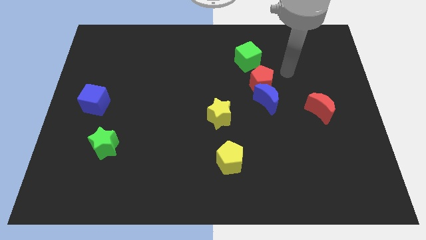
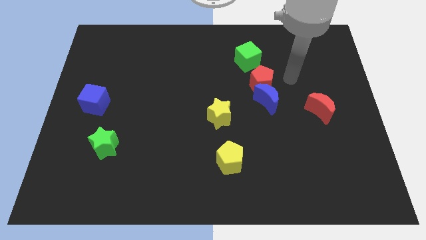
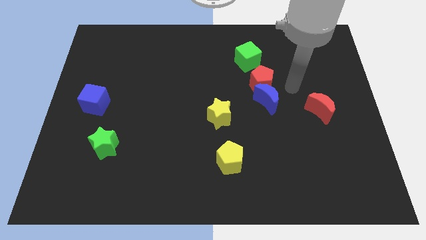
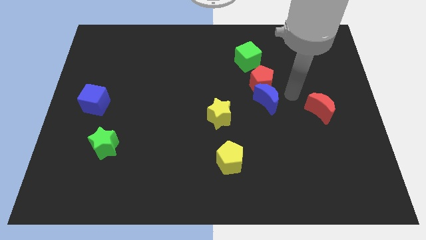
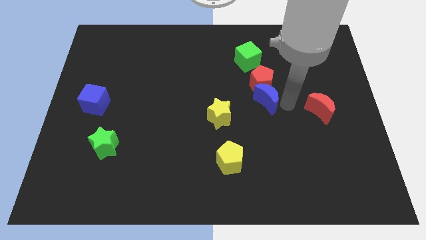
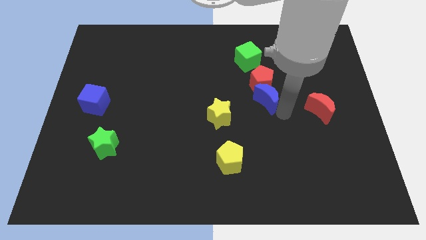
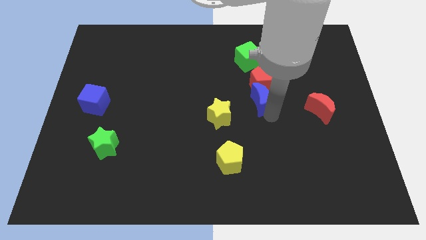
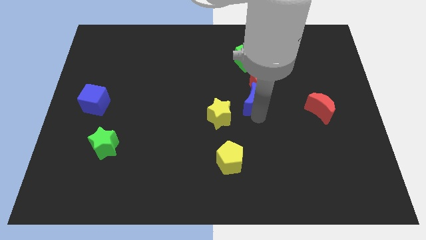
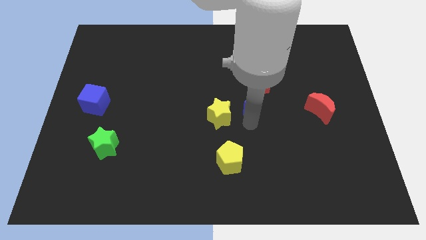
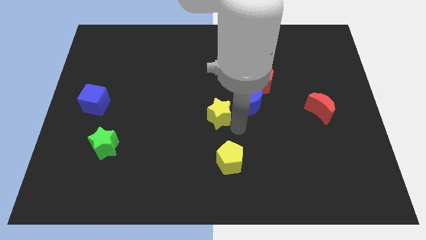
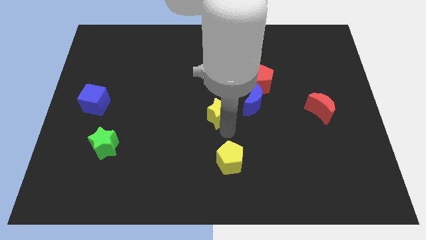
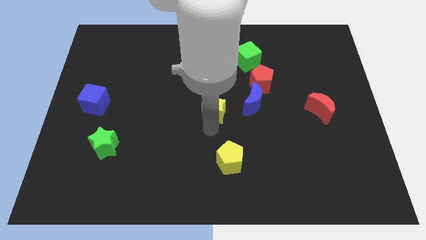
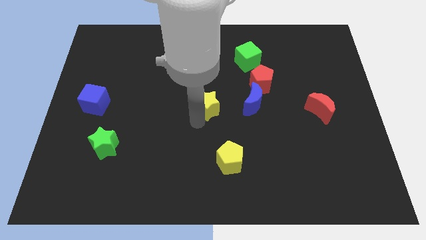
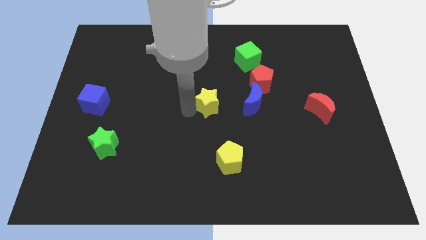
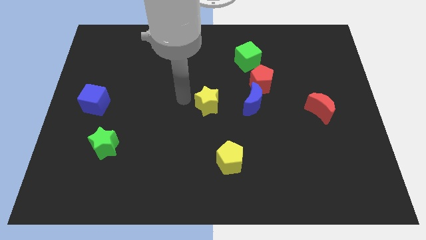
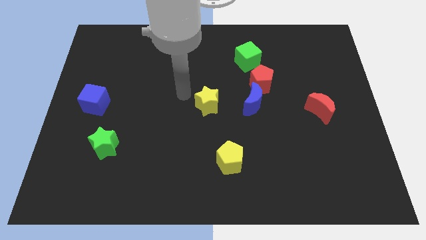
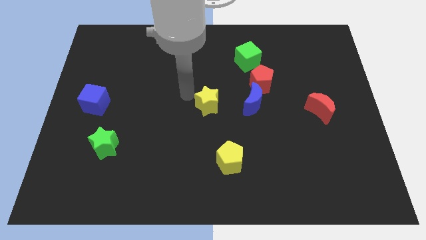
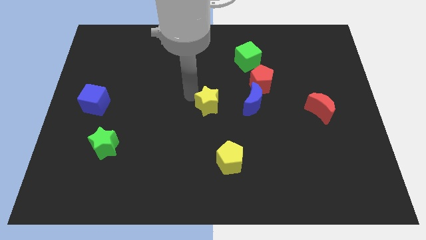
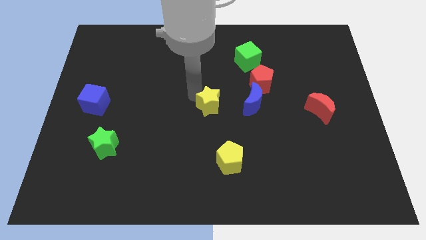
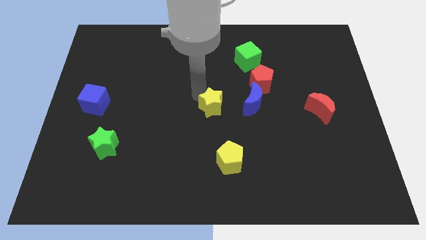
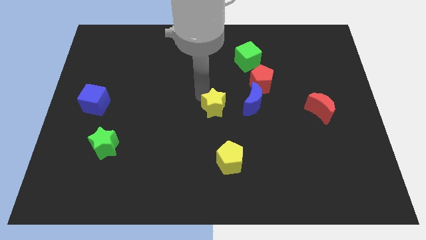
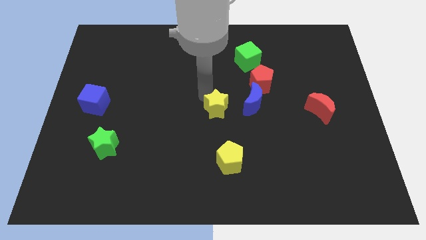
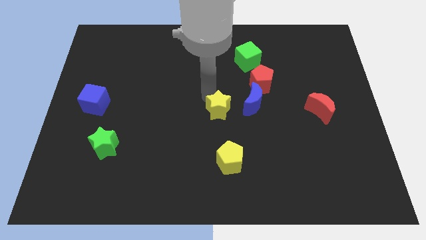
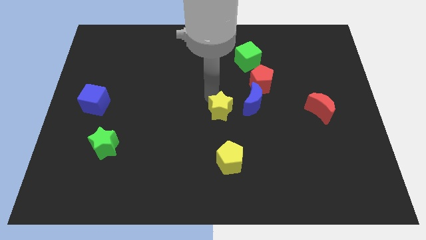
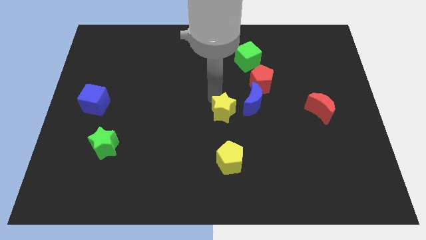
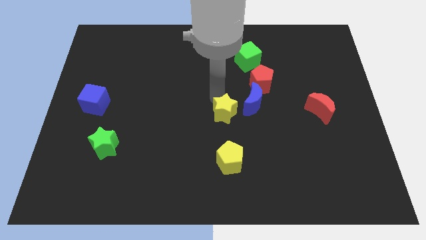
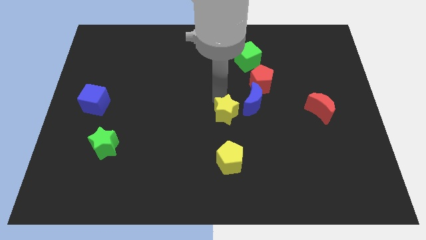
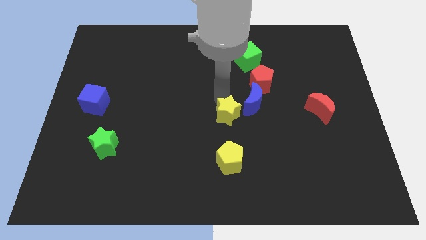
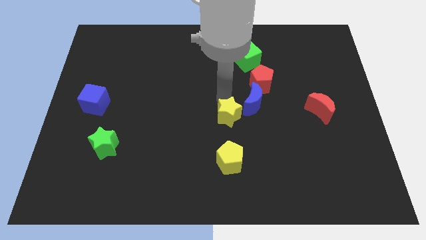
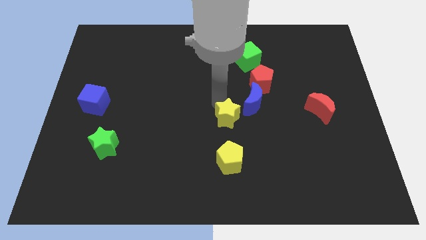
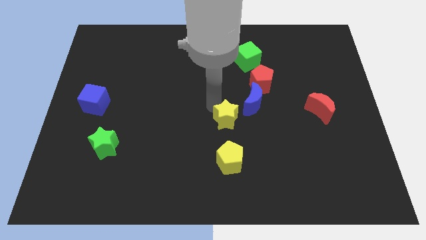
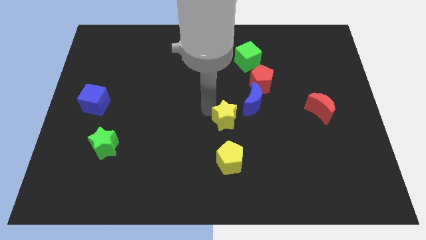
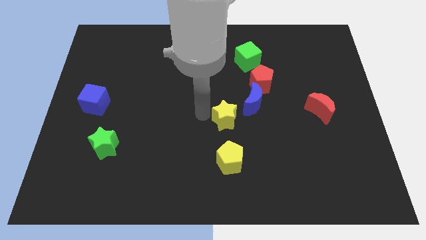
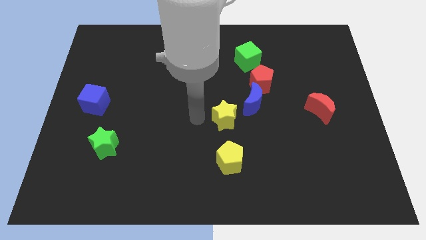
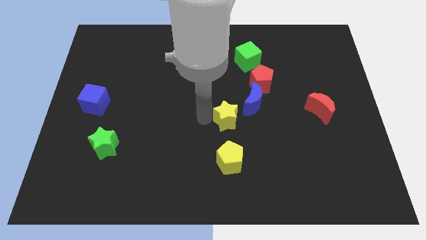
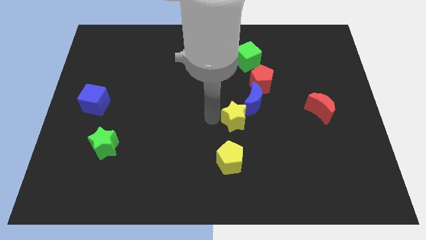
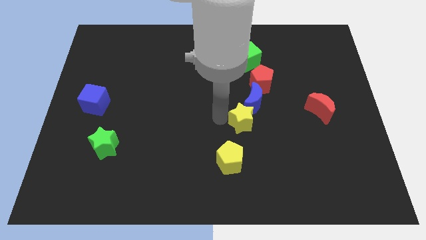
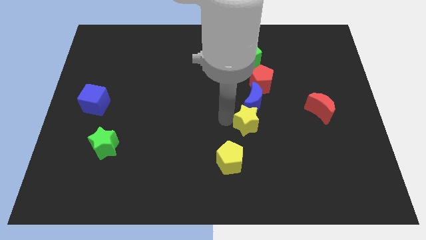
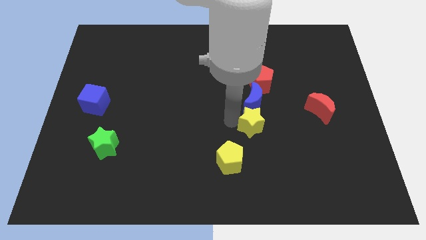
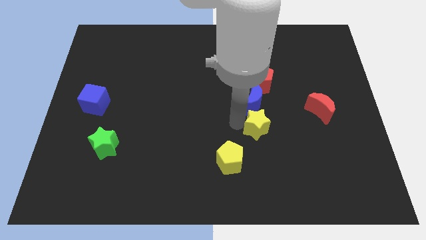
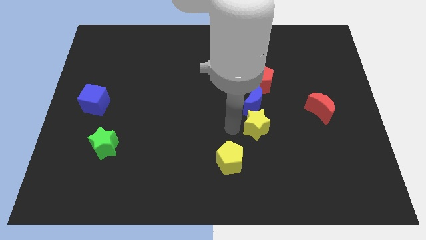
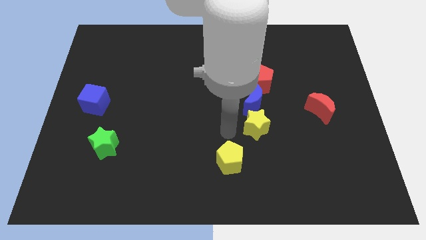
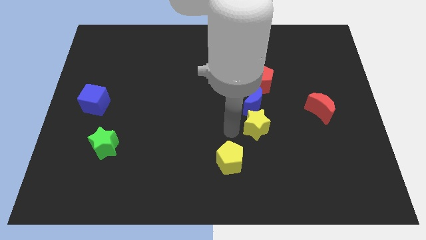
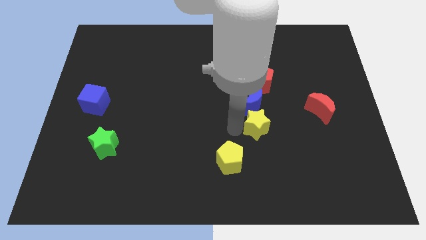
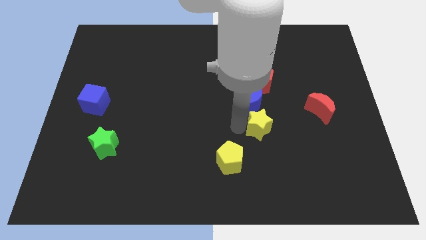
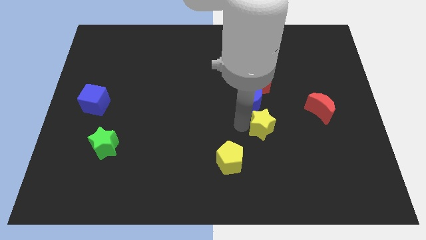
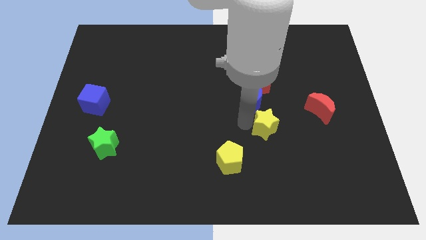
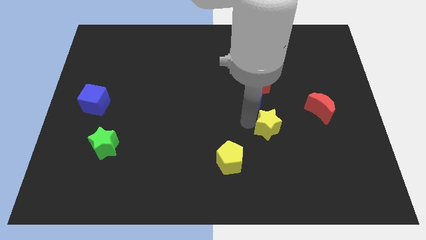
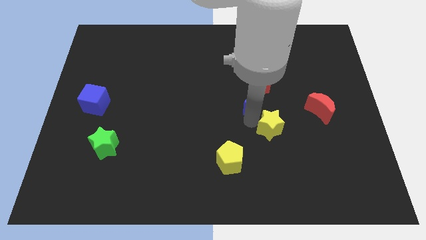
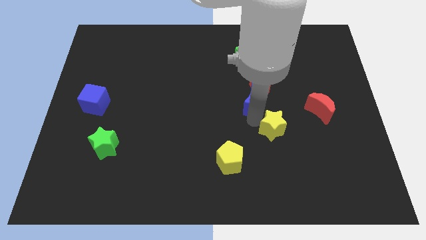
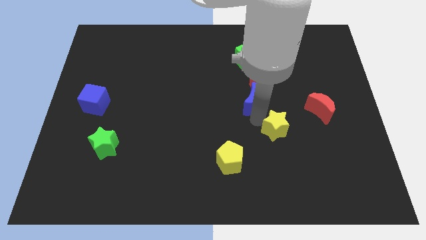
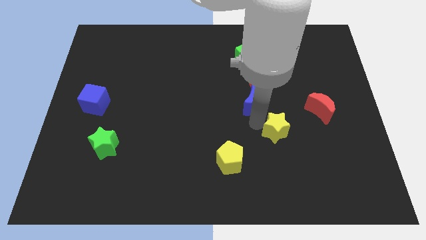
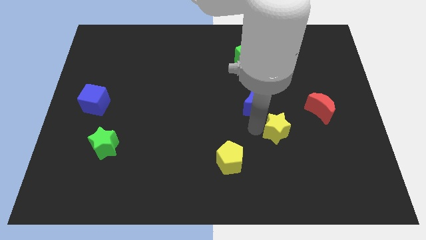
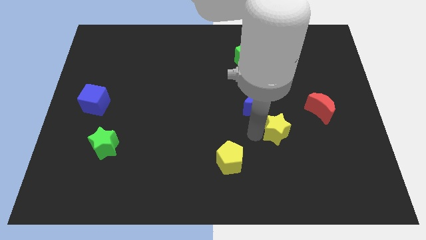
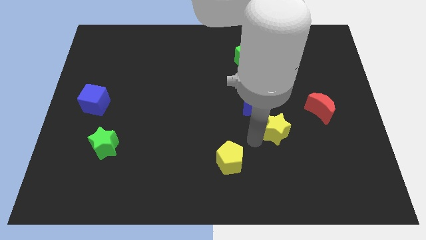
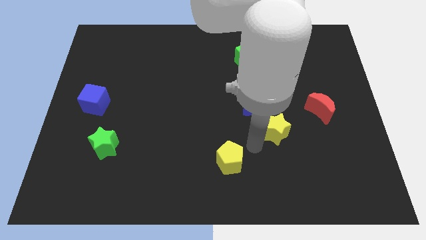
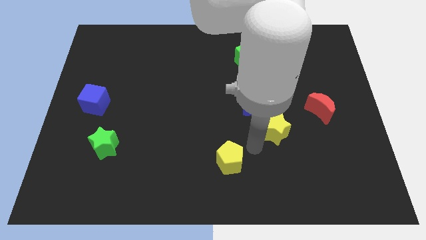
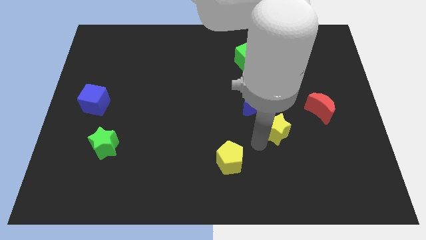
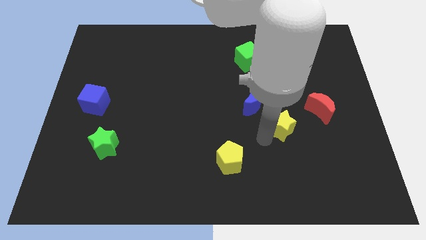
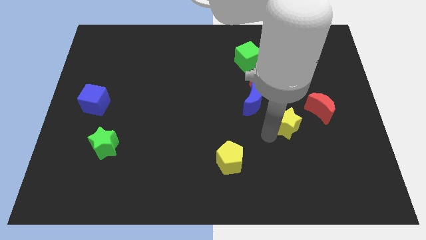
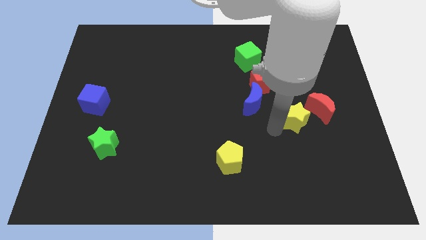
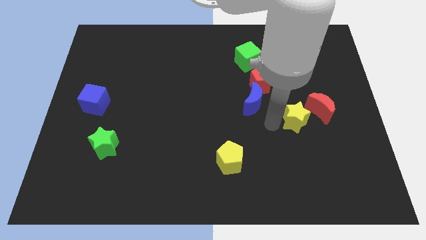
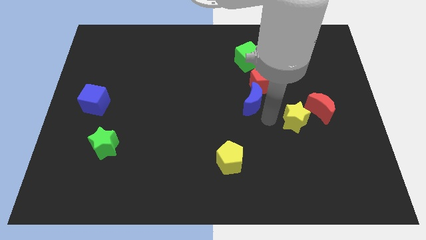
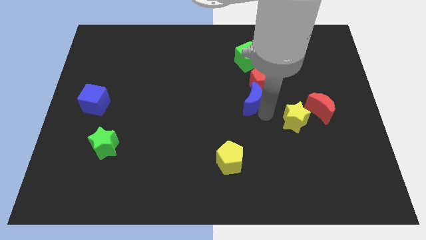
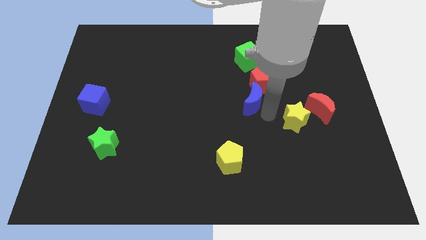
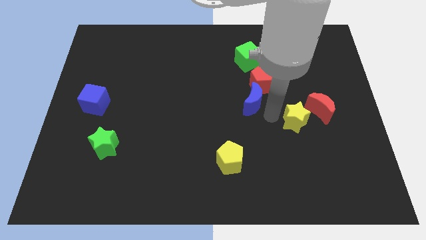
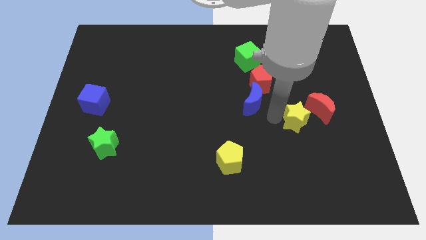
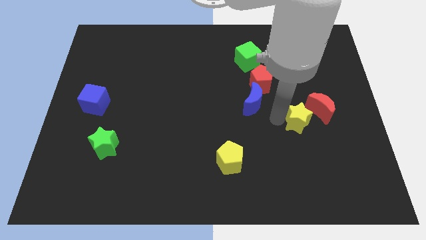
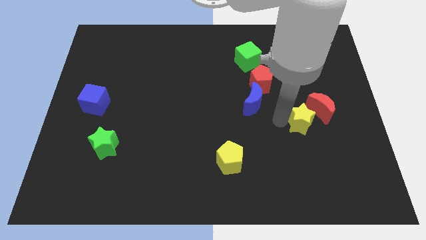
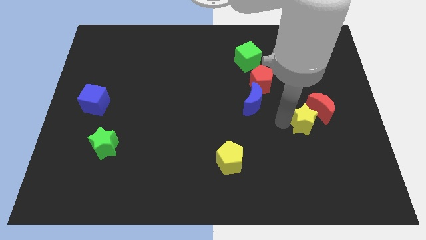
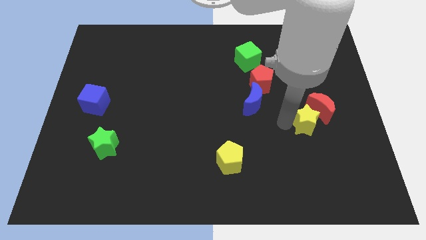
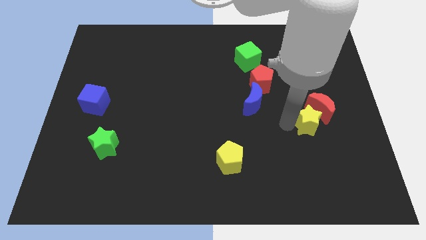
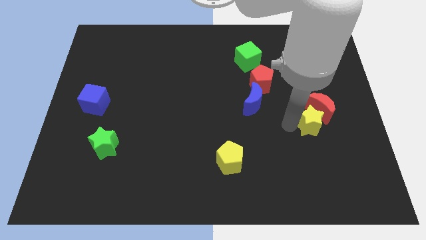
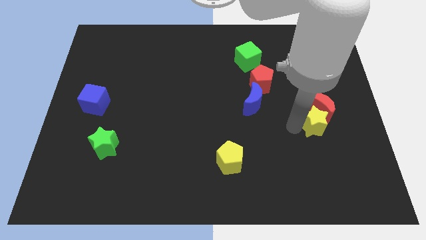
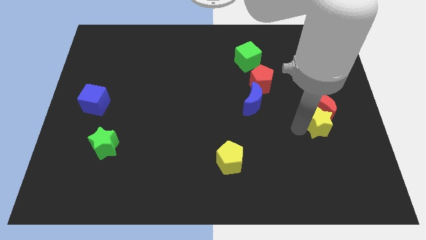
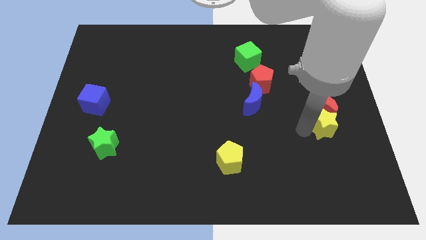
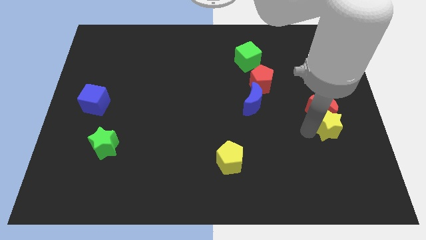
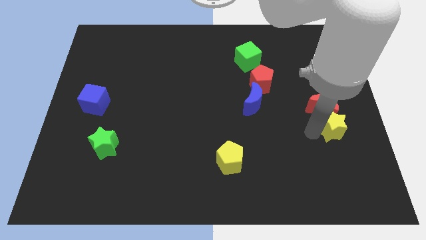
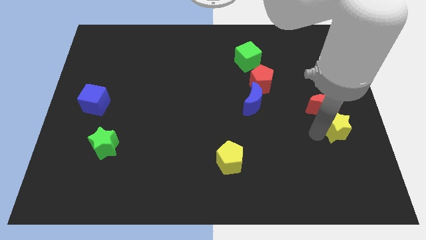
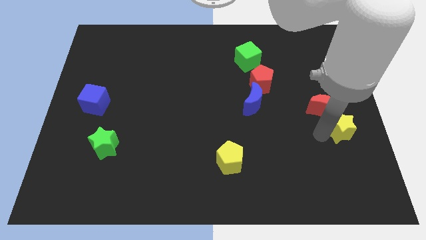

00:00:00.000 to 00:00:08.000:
slide the yellow star to the right side
